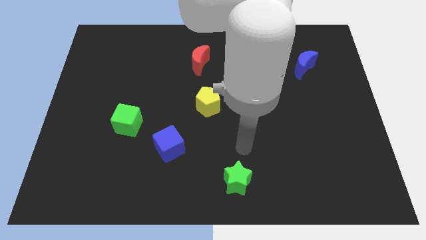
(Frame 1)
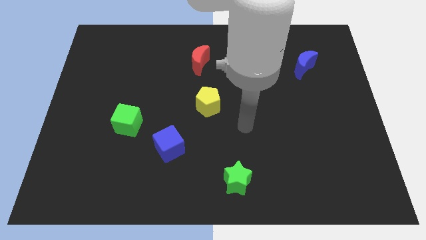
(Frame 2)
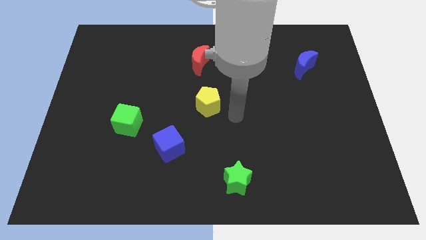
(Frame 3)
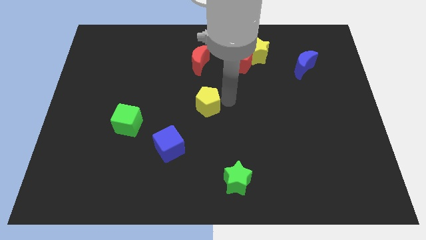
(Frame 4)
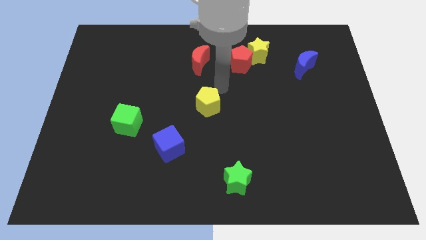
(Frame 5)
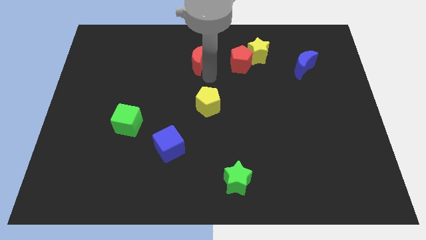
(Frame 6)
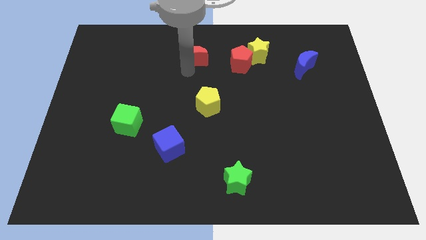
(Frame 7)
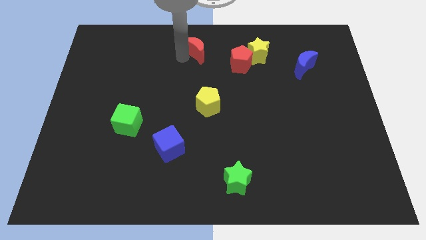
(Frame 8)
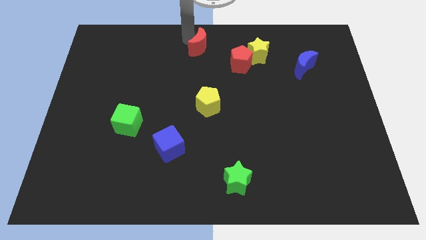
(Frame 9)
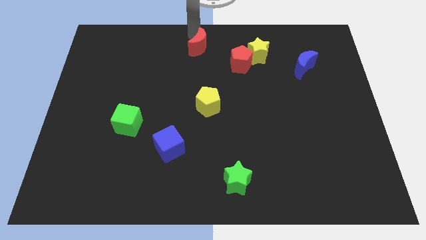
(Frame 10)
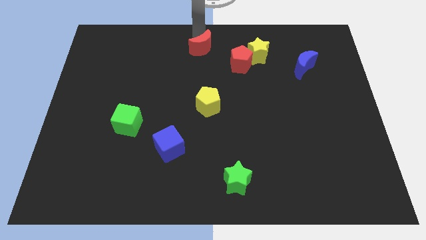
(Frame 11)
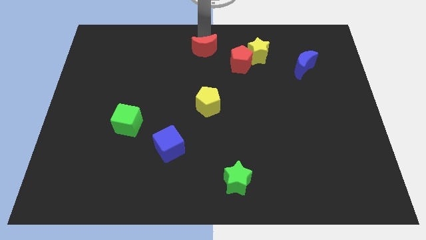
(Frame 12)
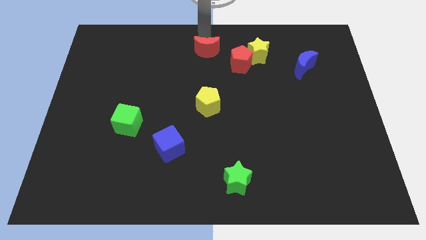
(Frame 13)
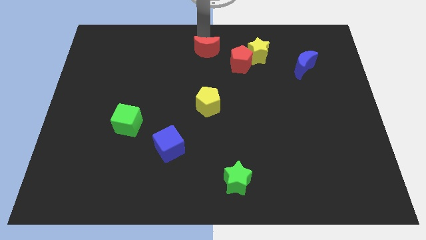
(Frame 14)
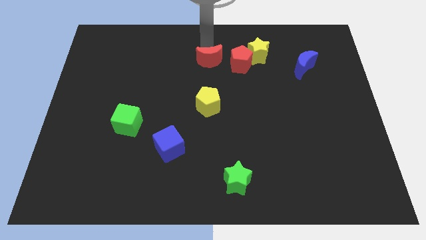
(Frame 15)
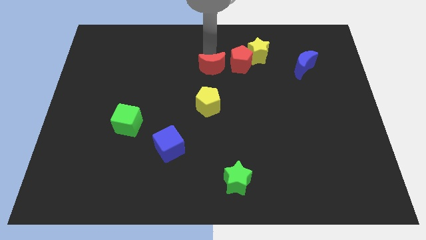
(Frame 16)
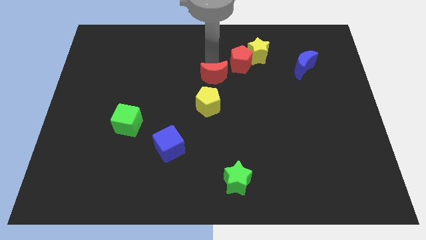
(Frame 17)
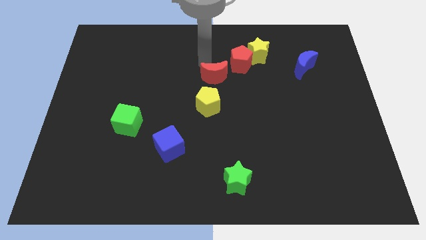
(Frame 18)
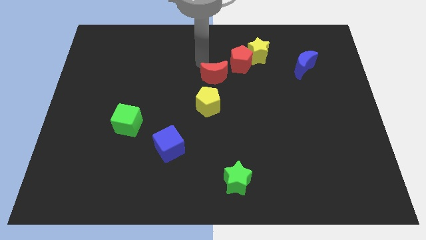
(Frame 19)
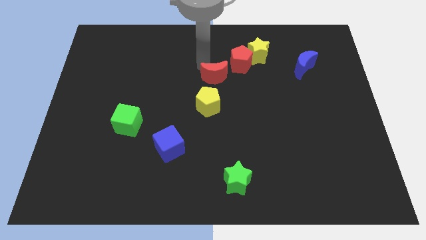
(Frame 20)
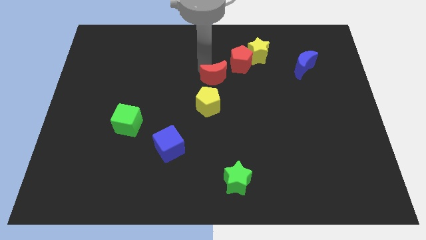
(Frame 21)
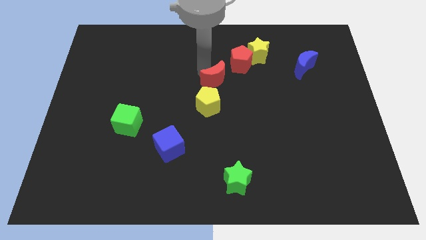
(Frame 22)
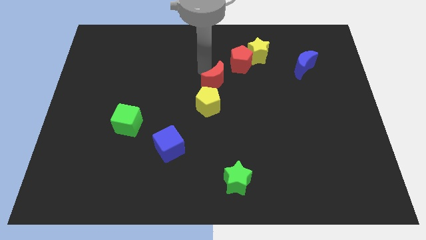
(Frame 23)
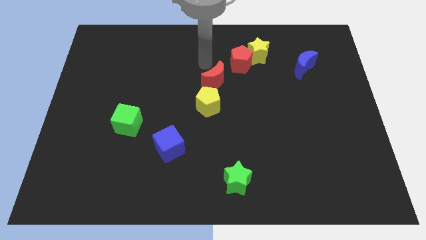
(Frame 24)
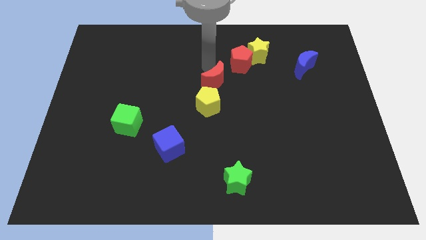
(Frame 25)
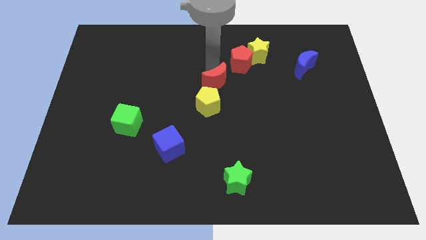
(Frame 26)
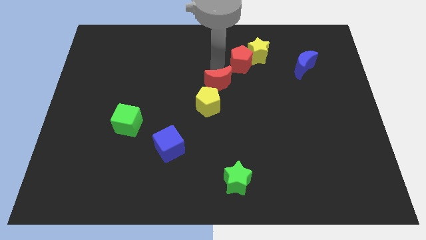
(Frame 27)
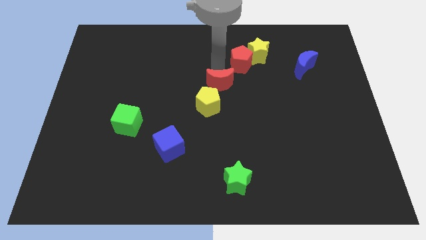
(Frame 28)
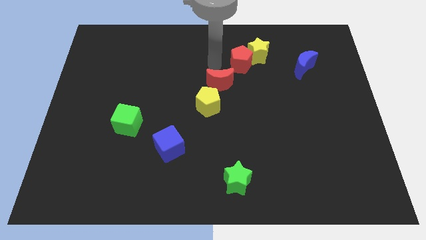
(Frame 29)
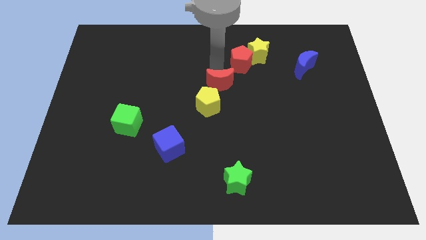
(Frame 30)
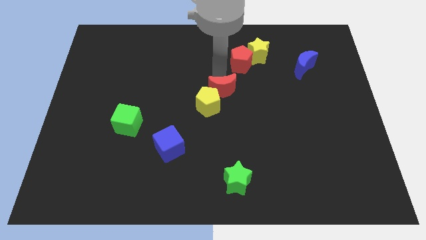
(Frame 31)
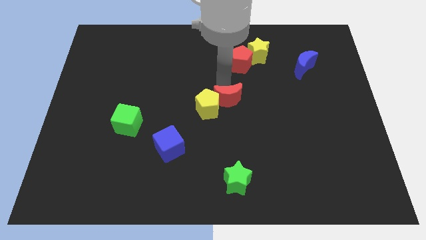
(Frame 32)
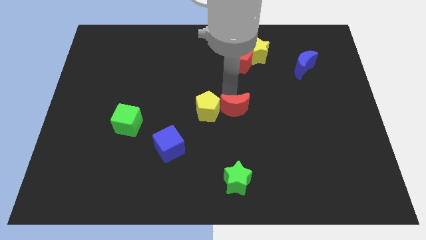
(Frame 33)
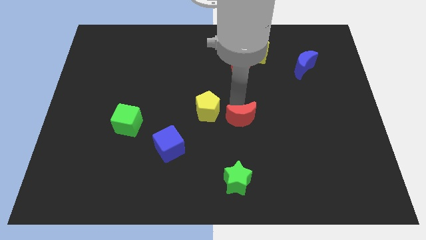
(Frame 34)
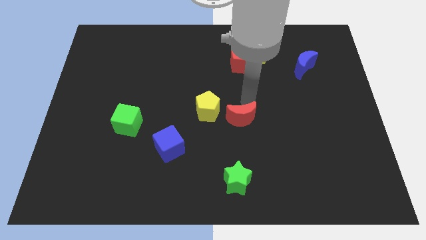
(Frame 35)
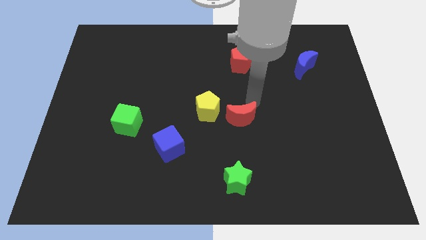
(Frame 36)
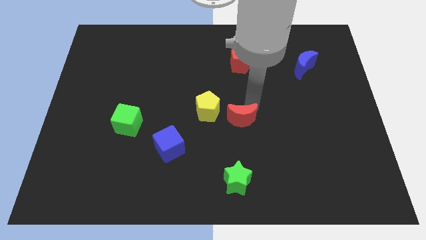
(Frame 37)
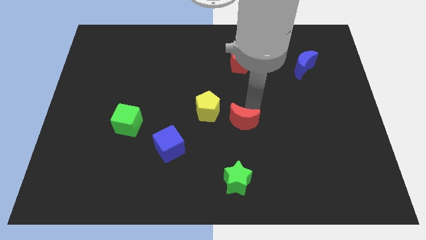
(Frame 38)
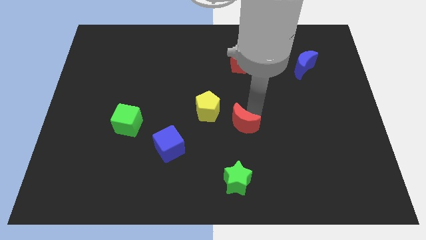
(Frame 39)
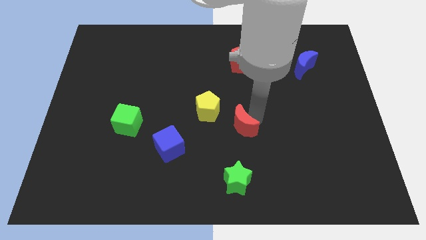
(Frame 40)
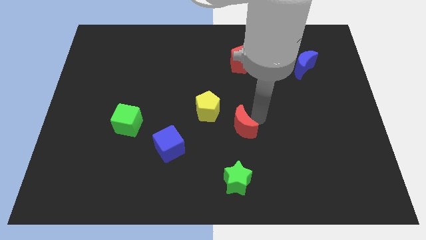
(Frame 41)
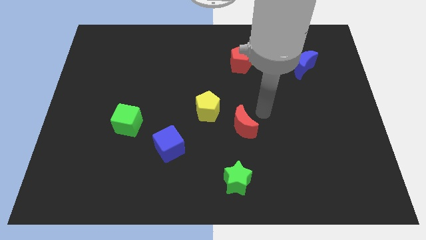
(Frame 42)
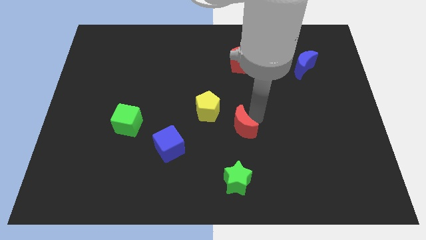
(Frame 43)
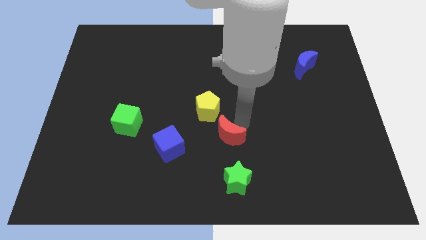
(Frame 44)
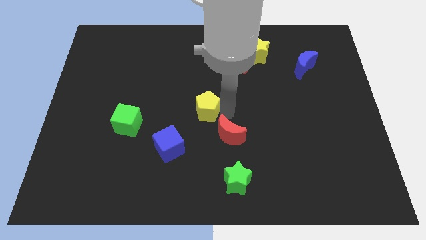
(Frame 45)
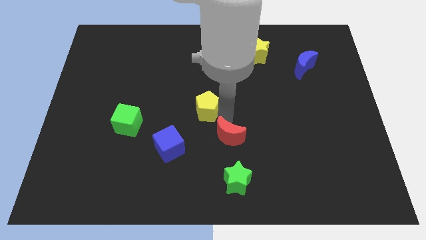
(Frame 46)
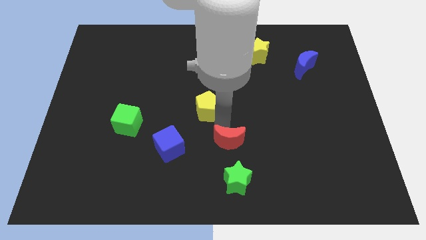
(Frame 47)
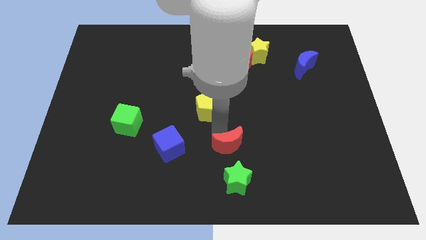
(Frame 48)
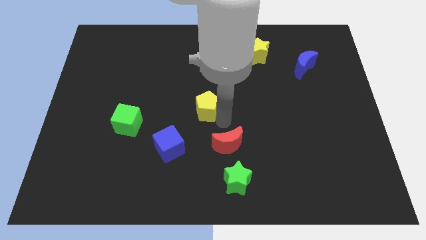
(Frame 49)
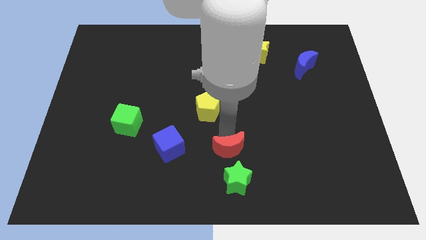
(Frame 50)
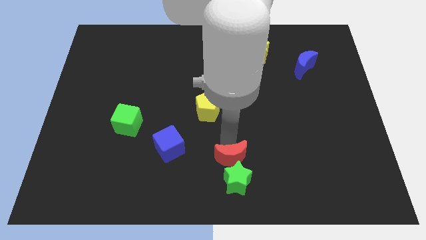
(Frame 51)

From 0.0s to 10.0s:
slide the red moon next to the green star

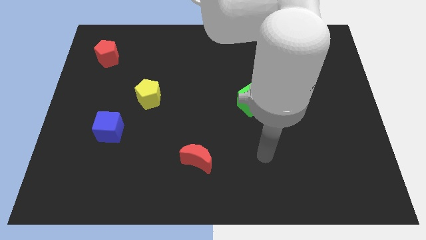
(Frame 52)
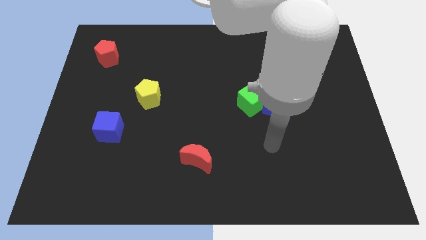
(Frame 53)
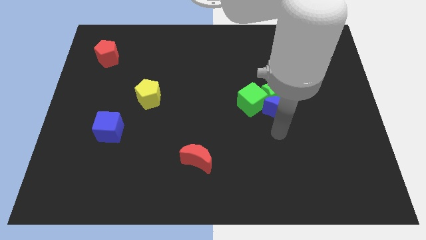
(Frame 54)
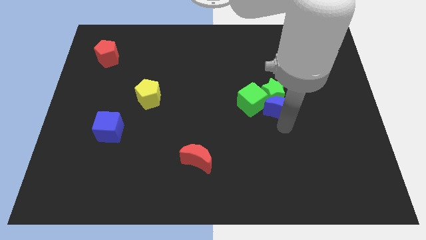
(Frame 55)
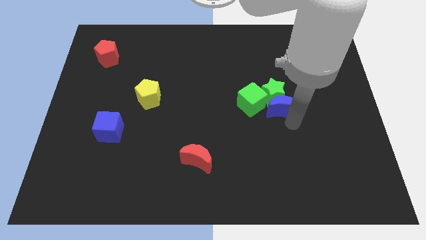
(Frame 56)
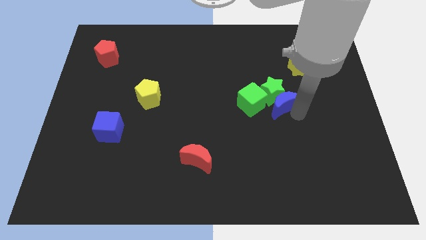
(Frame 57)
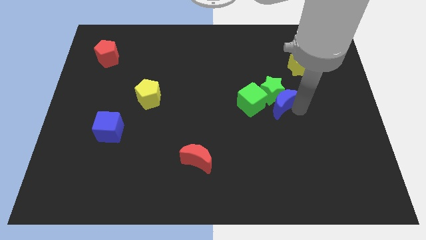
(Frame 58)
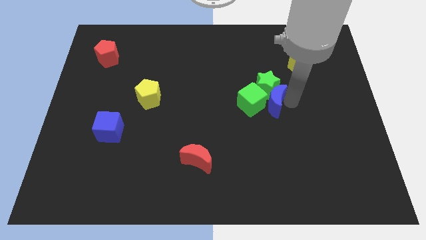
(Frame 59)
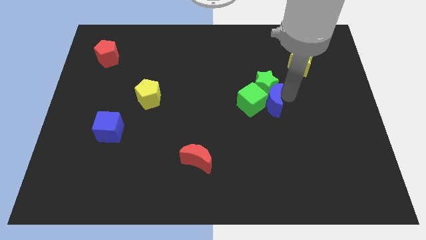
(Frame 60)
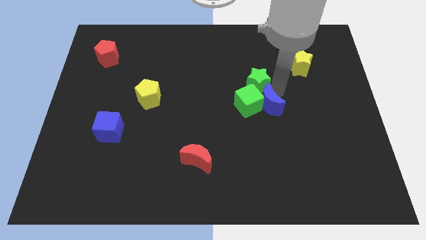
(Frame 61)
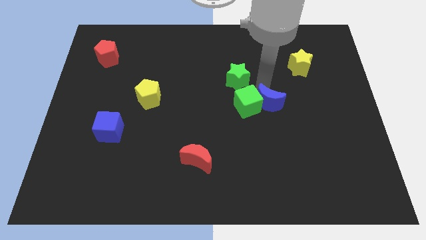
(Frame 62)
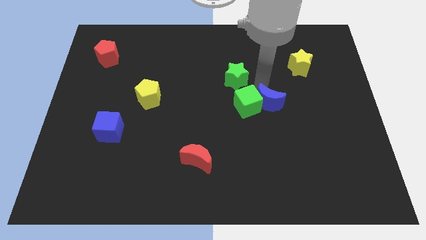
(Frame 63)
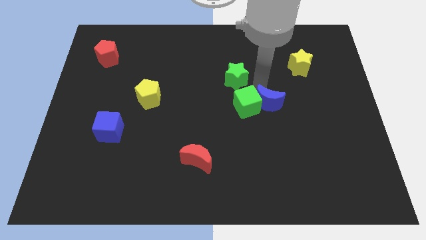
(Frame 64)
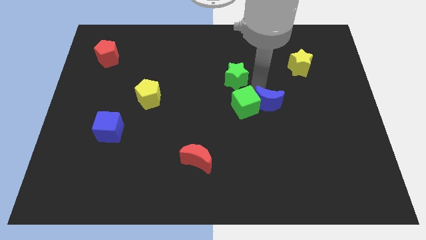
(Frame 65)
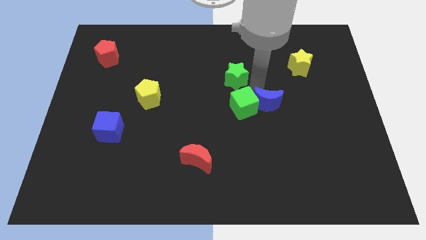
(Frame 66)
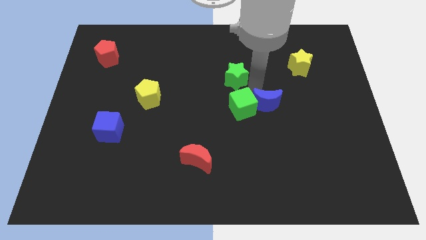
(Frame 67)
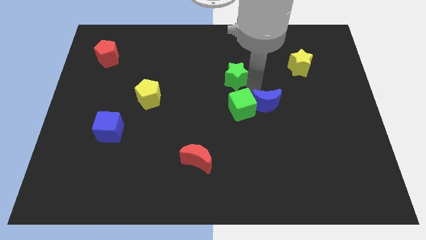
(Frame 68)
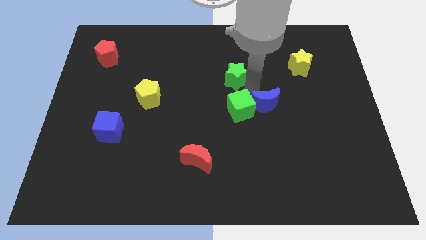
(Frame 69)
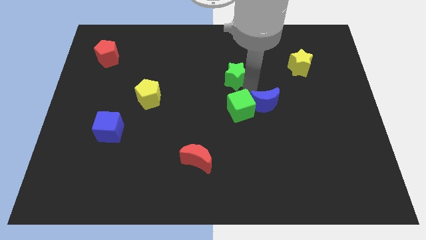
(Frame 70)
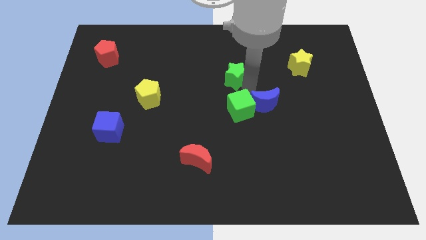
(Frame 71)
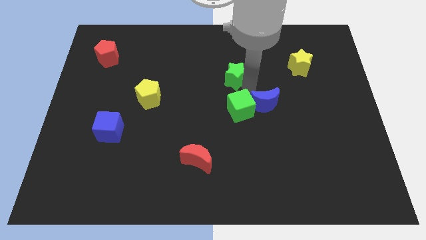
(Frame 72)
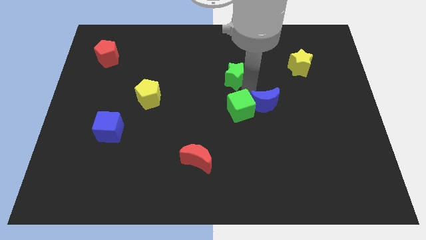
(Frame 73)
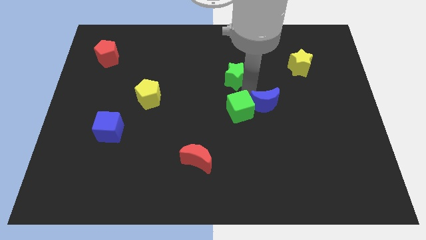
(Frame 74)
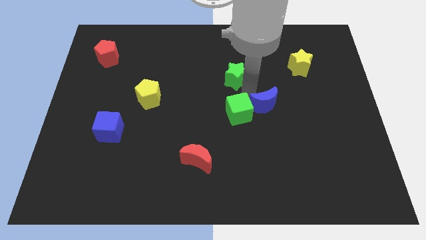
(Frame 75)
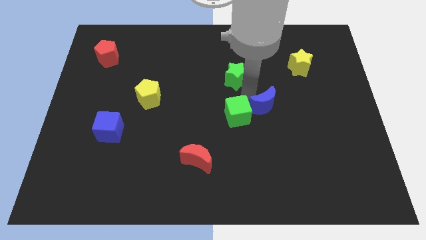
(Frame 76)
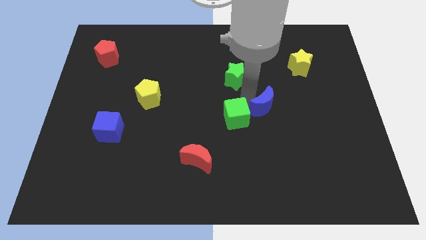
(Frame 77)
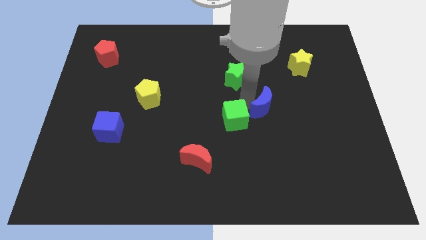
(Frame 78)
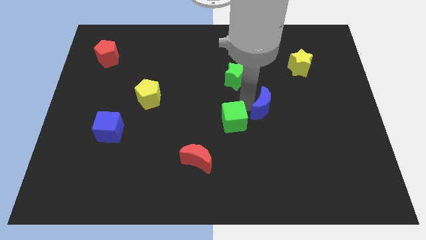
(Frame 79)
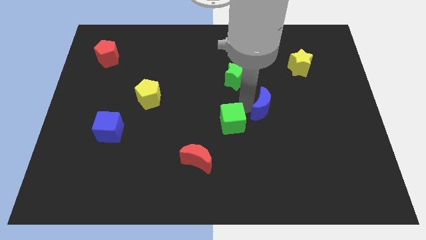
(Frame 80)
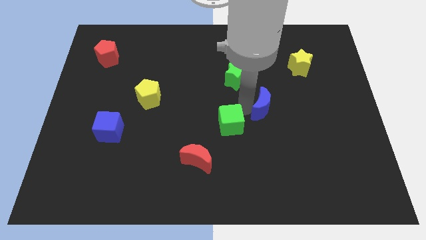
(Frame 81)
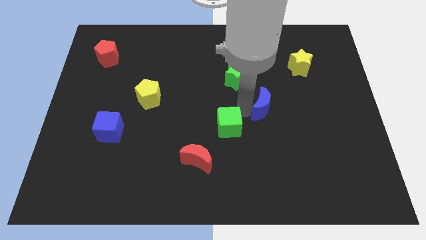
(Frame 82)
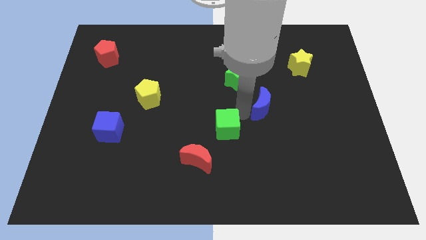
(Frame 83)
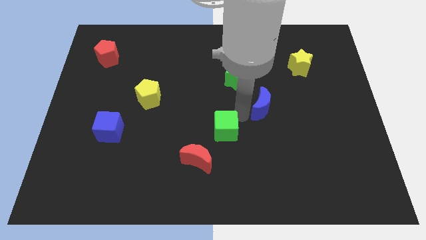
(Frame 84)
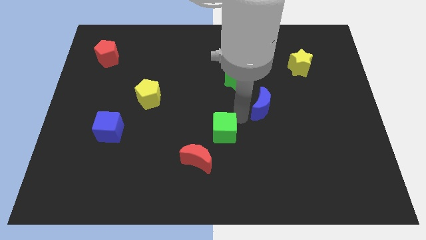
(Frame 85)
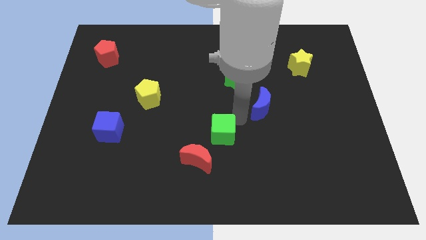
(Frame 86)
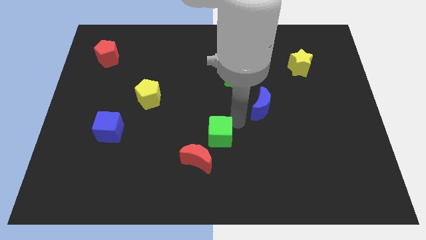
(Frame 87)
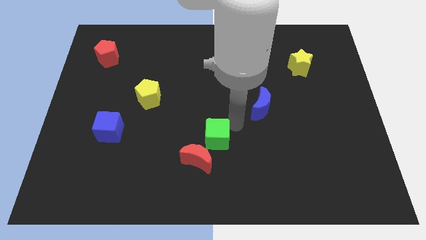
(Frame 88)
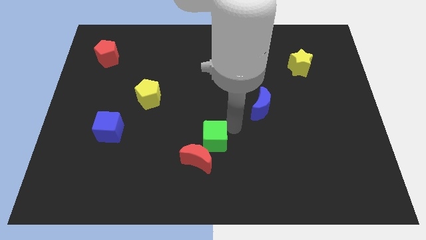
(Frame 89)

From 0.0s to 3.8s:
move the green cube next to the red moon
